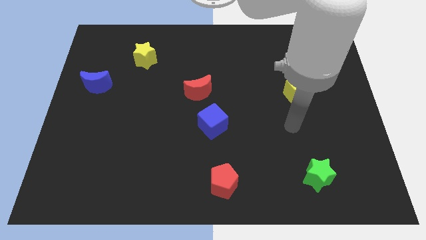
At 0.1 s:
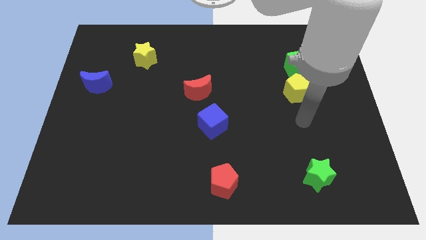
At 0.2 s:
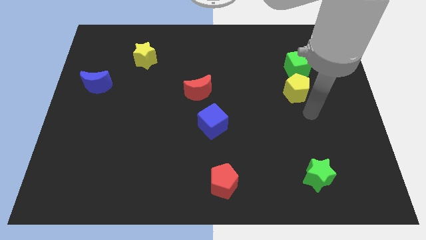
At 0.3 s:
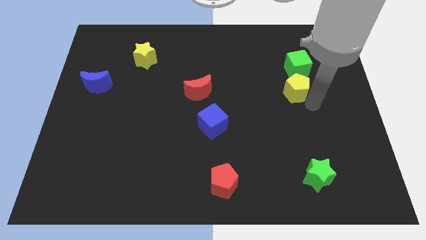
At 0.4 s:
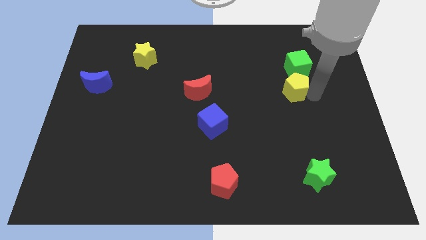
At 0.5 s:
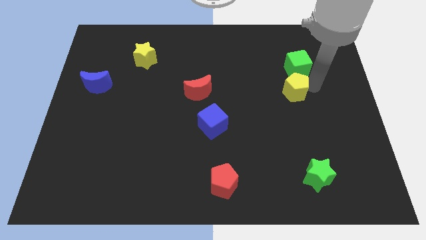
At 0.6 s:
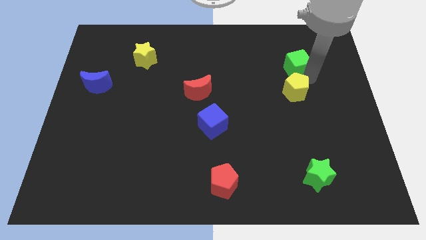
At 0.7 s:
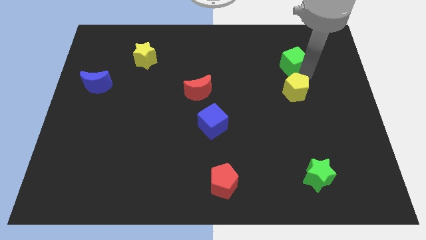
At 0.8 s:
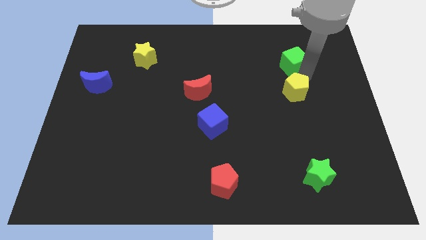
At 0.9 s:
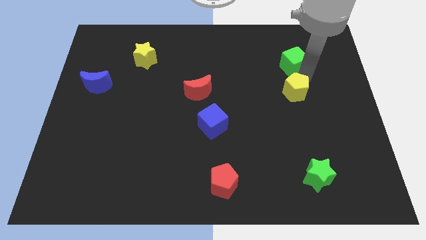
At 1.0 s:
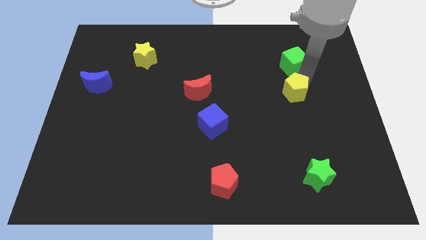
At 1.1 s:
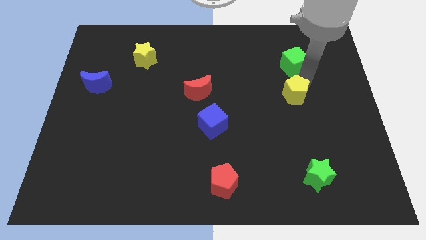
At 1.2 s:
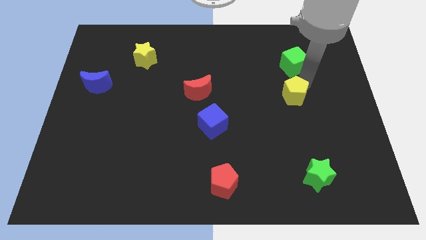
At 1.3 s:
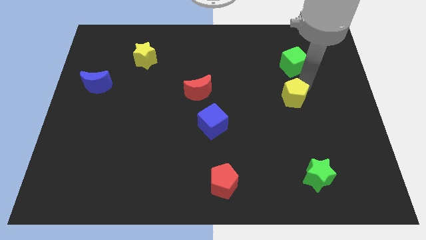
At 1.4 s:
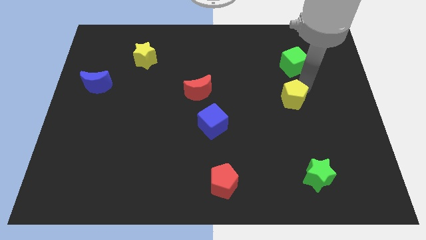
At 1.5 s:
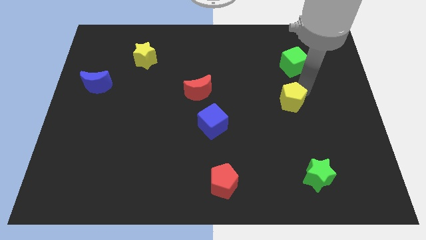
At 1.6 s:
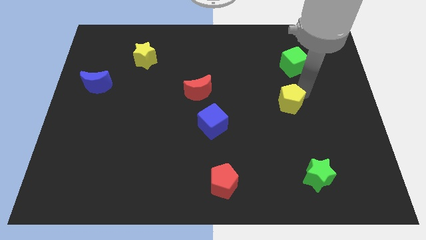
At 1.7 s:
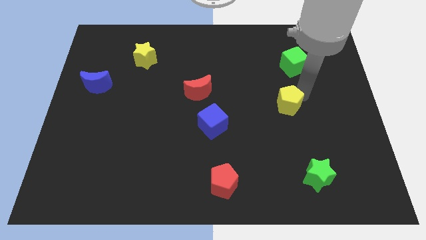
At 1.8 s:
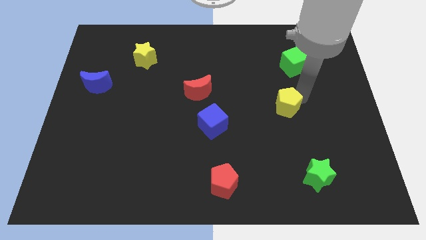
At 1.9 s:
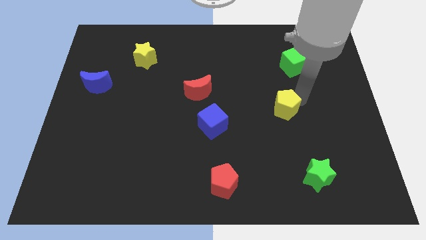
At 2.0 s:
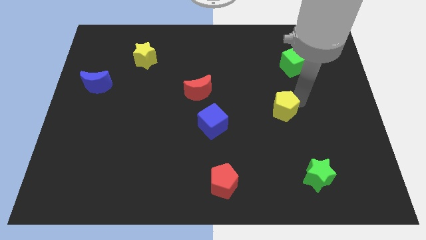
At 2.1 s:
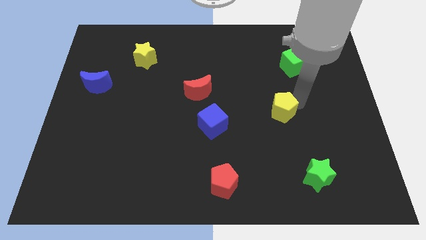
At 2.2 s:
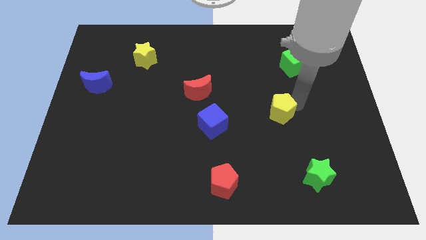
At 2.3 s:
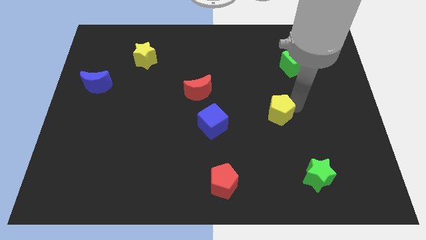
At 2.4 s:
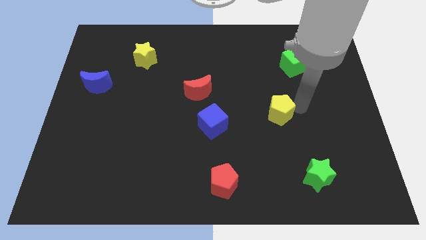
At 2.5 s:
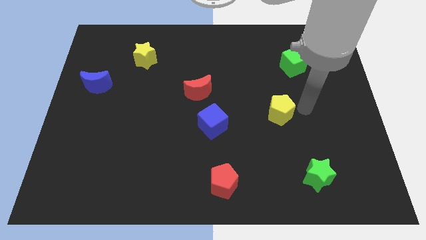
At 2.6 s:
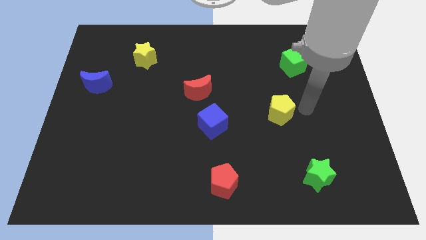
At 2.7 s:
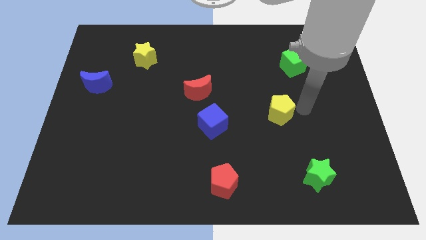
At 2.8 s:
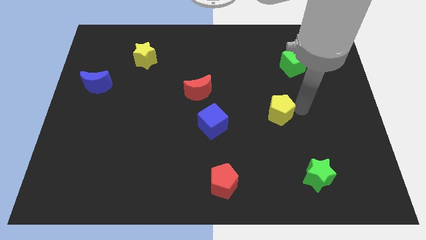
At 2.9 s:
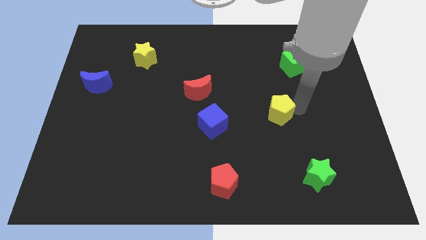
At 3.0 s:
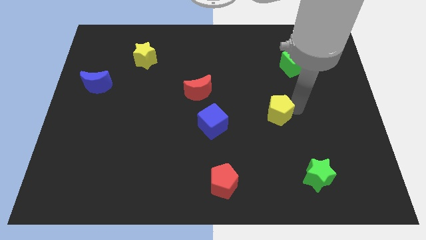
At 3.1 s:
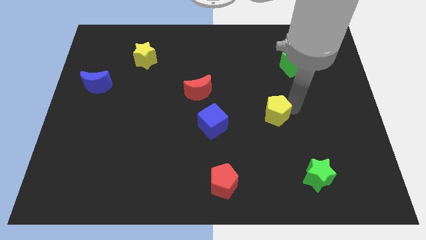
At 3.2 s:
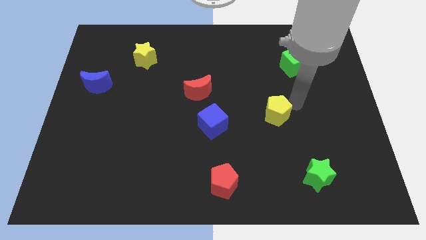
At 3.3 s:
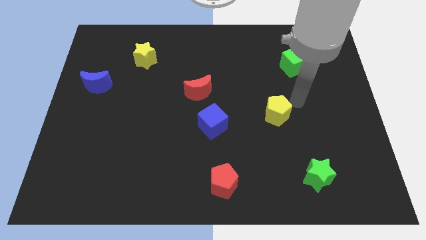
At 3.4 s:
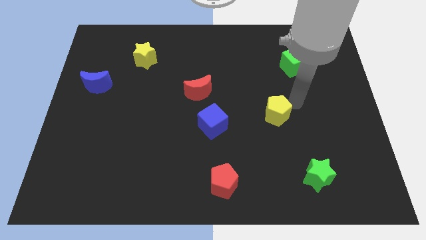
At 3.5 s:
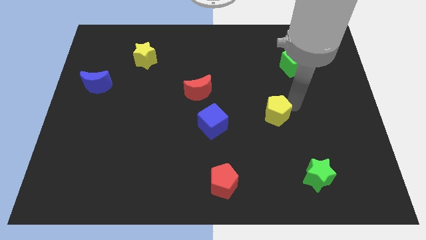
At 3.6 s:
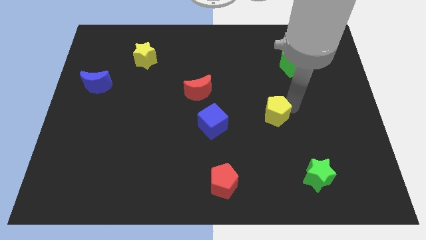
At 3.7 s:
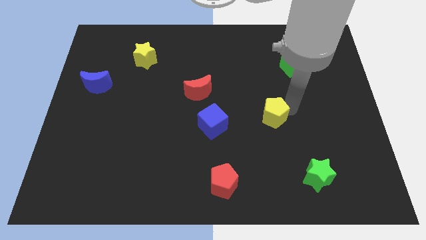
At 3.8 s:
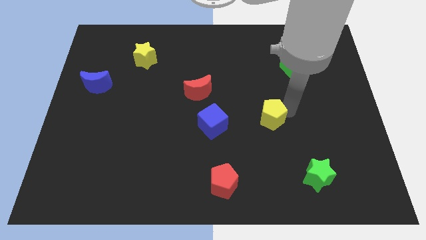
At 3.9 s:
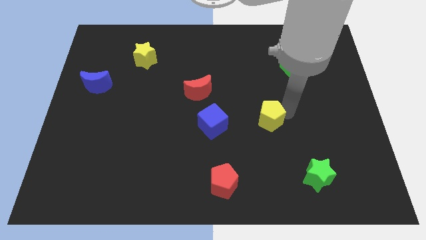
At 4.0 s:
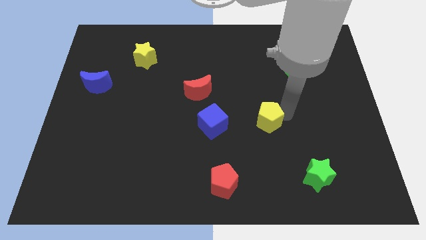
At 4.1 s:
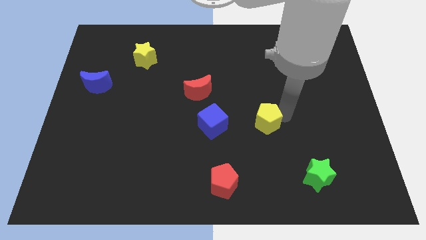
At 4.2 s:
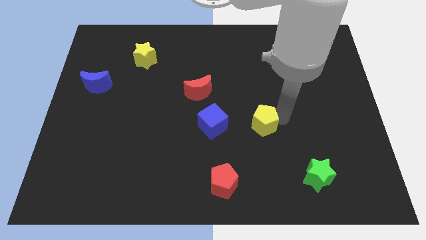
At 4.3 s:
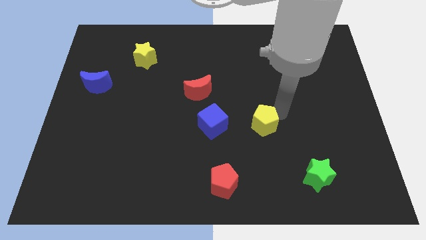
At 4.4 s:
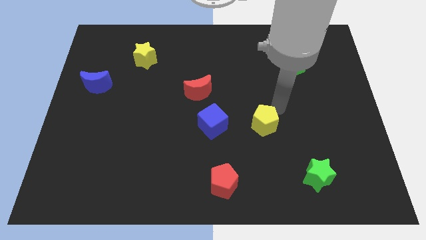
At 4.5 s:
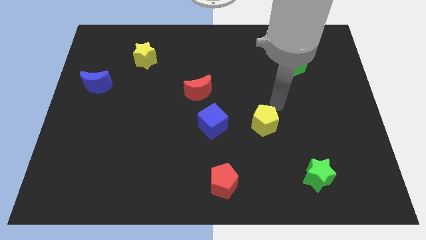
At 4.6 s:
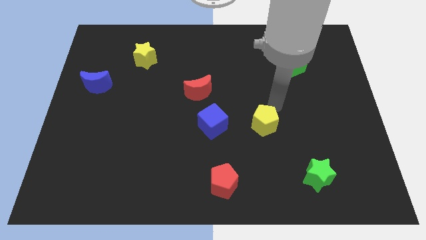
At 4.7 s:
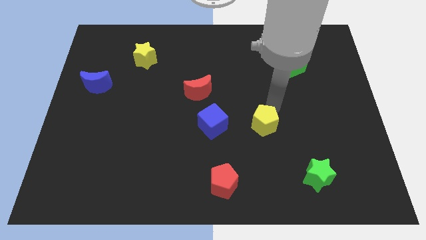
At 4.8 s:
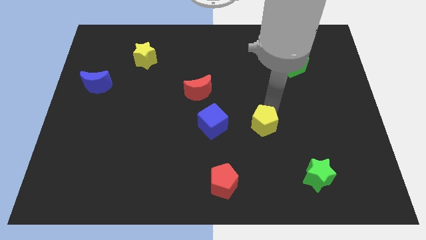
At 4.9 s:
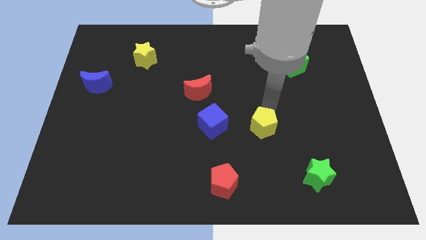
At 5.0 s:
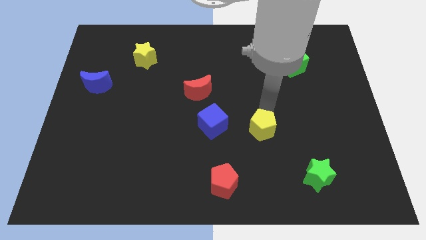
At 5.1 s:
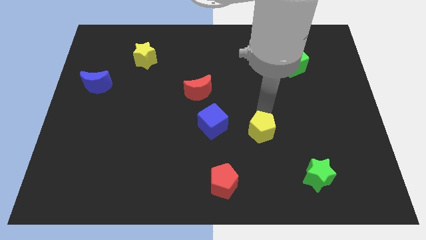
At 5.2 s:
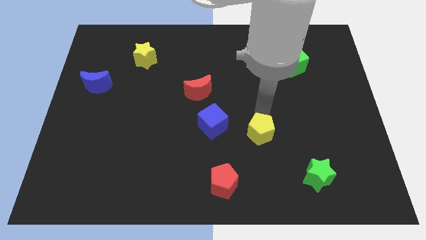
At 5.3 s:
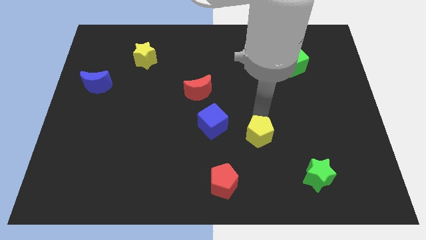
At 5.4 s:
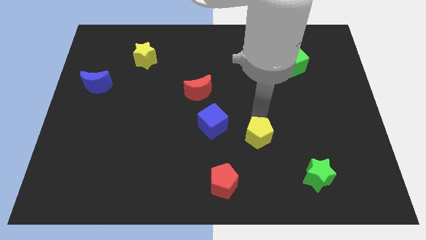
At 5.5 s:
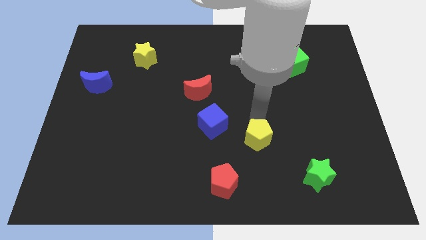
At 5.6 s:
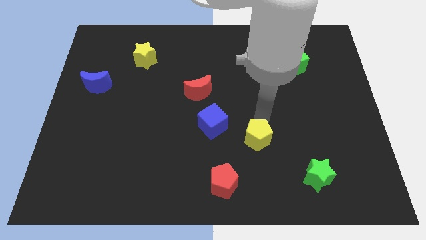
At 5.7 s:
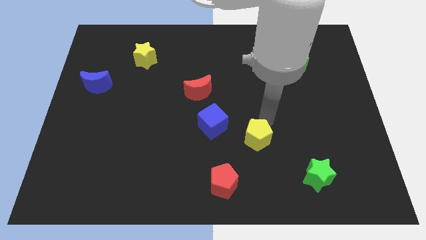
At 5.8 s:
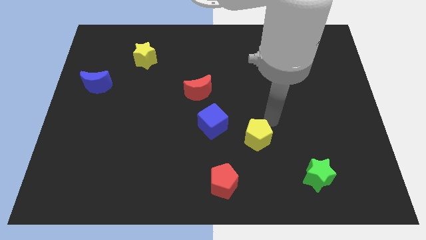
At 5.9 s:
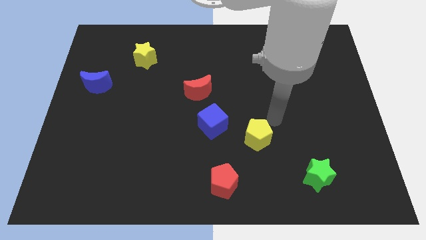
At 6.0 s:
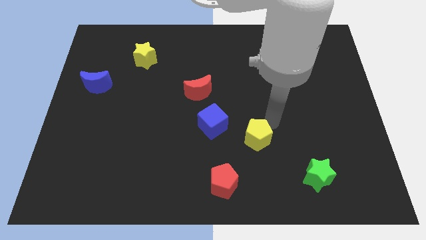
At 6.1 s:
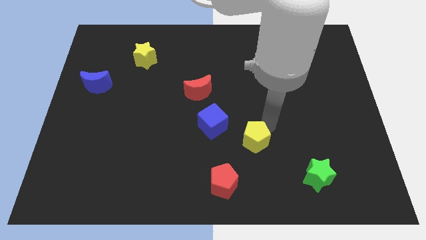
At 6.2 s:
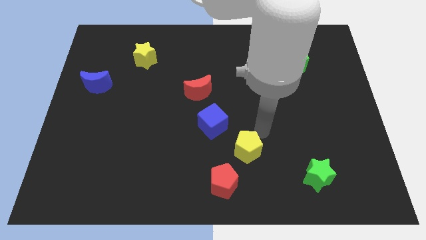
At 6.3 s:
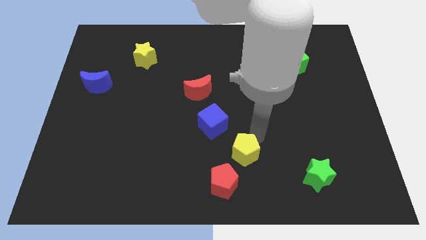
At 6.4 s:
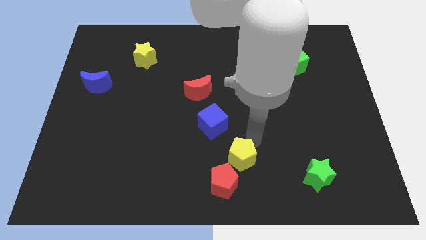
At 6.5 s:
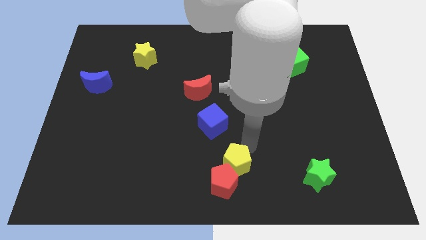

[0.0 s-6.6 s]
slide the yellow pentagon to the red pentagon

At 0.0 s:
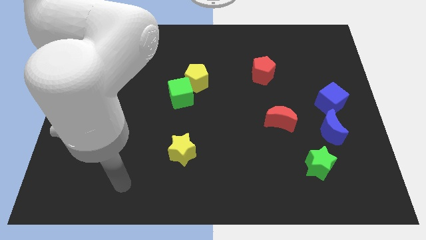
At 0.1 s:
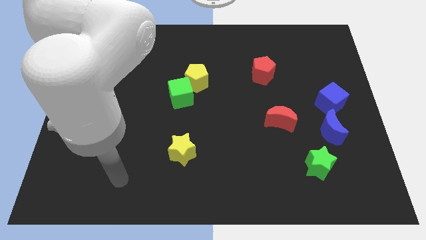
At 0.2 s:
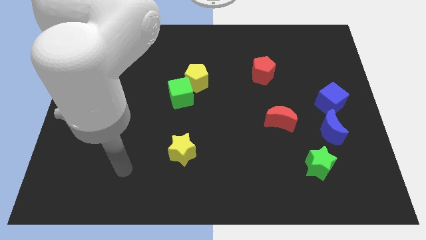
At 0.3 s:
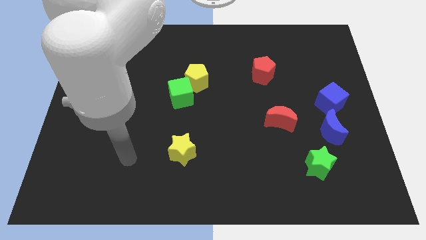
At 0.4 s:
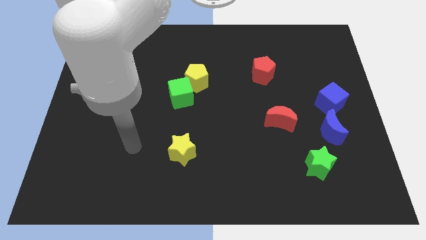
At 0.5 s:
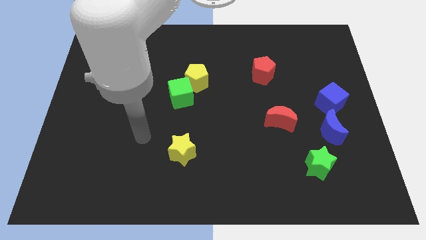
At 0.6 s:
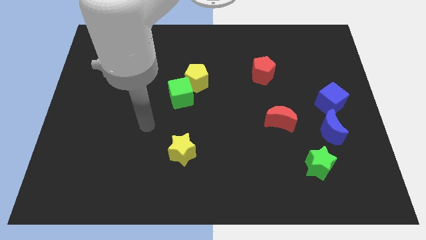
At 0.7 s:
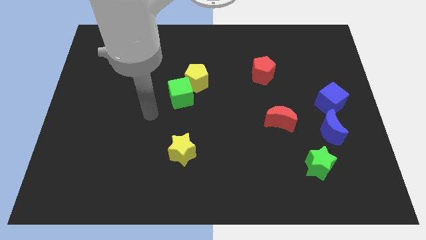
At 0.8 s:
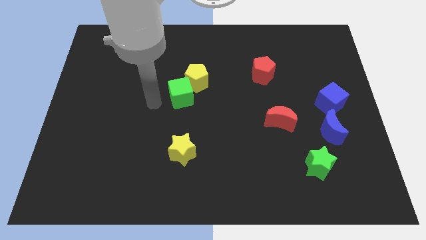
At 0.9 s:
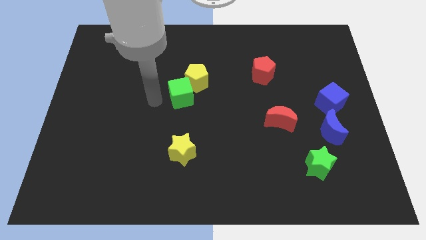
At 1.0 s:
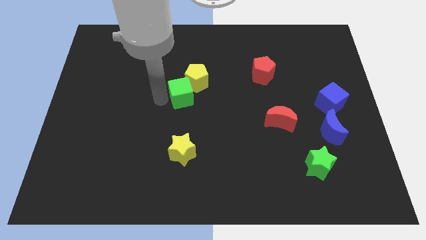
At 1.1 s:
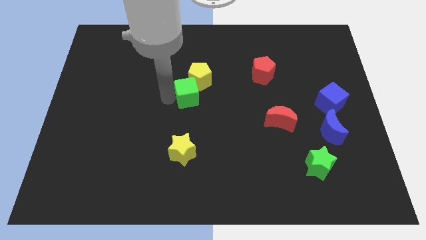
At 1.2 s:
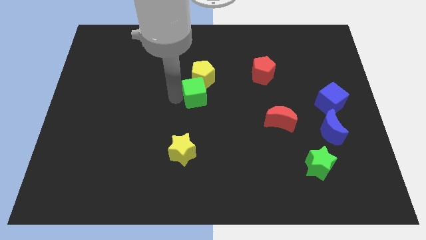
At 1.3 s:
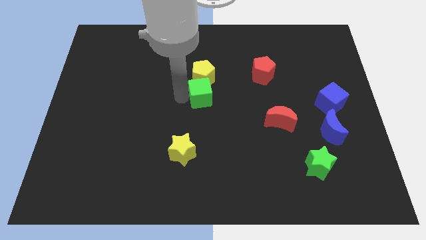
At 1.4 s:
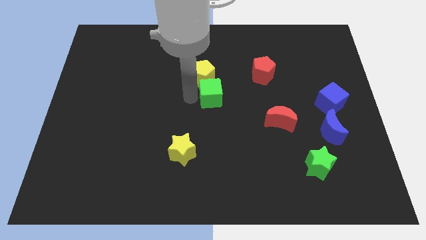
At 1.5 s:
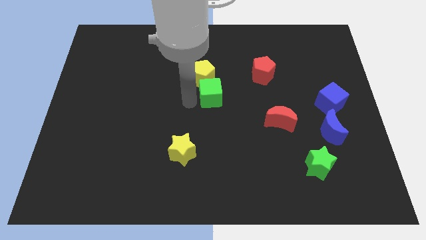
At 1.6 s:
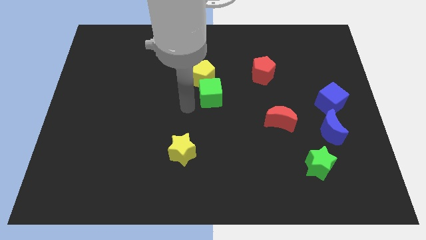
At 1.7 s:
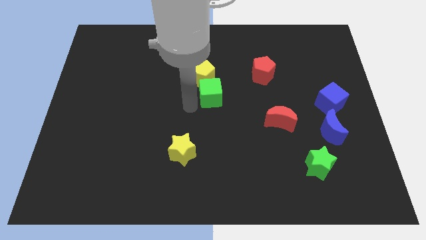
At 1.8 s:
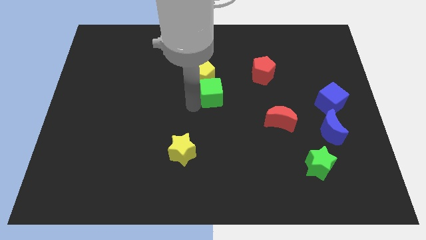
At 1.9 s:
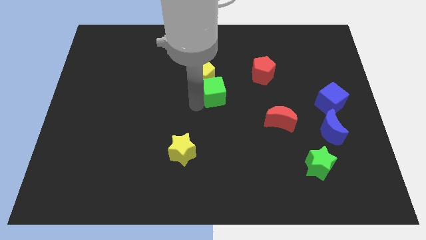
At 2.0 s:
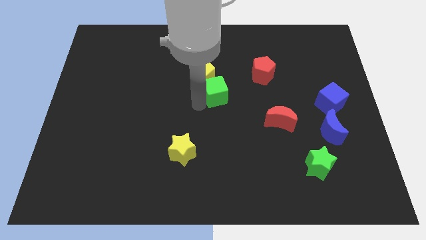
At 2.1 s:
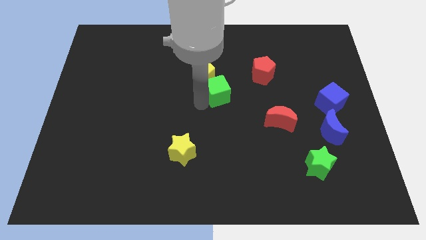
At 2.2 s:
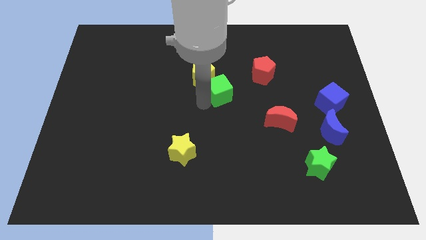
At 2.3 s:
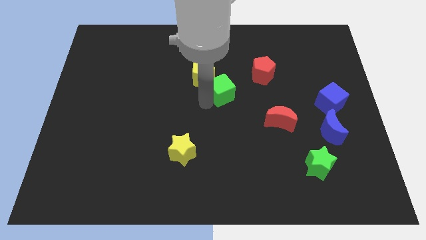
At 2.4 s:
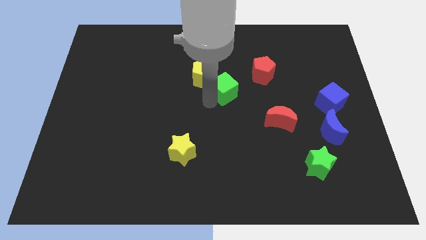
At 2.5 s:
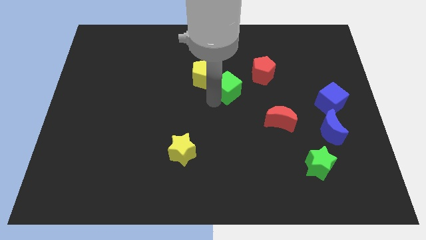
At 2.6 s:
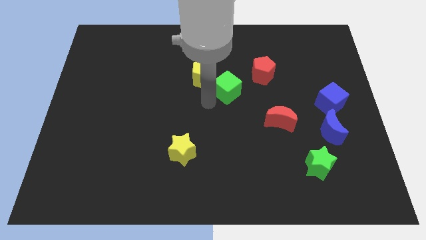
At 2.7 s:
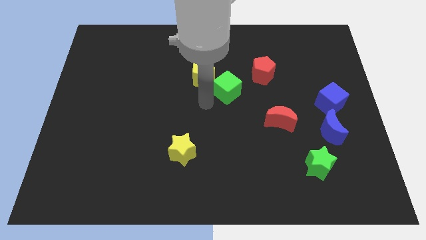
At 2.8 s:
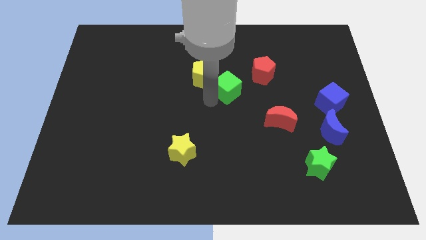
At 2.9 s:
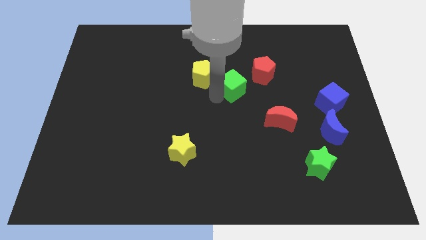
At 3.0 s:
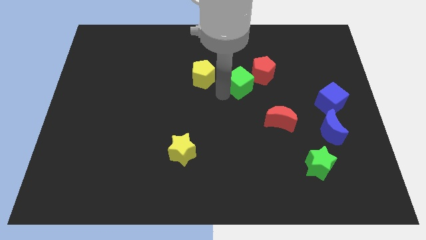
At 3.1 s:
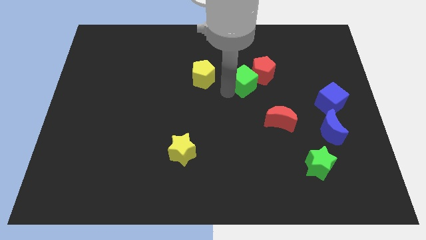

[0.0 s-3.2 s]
put the green cube towards the red pentagon
